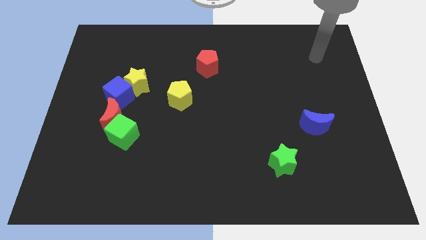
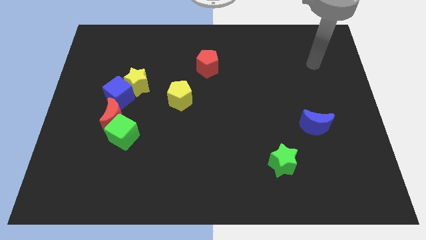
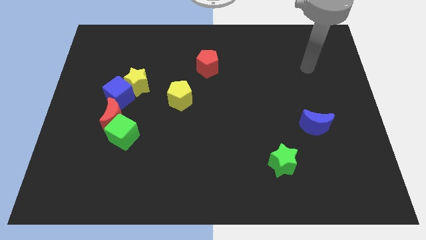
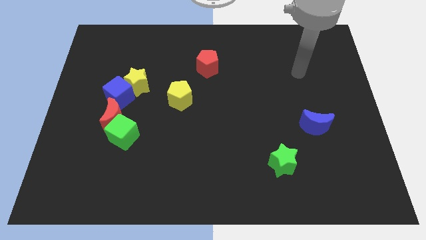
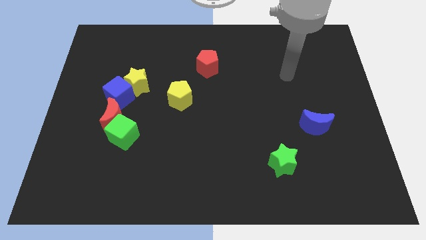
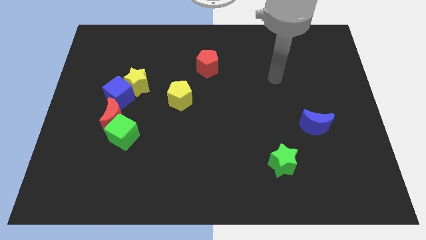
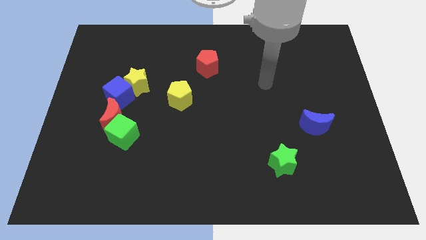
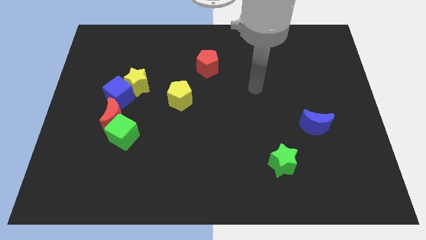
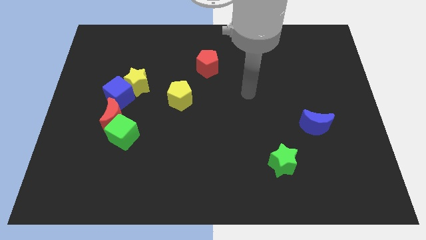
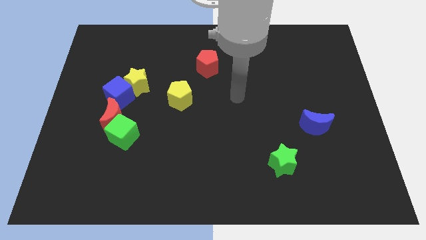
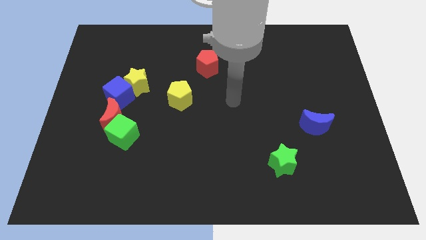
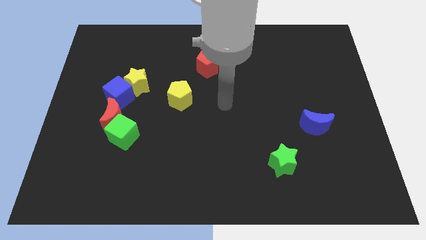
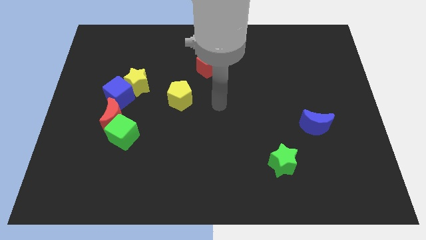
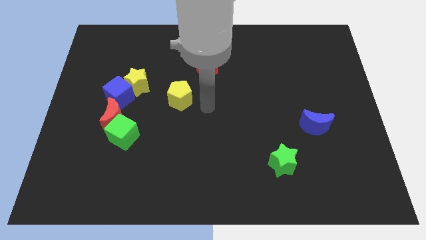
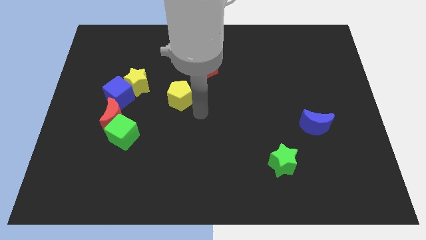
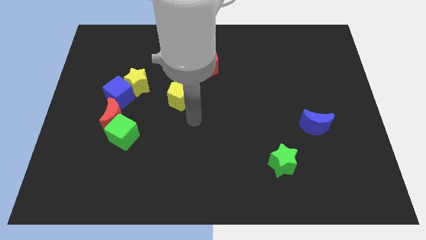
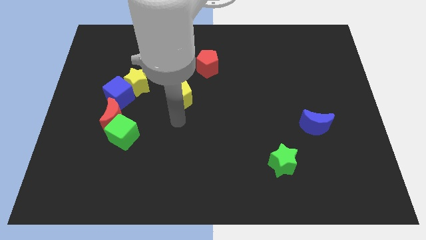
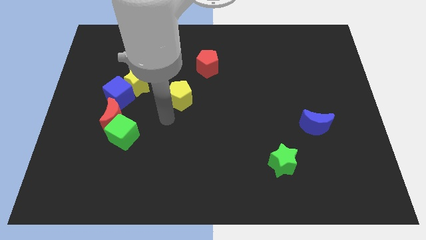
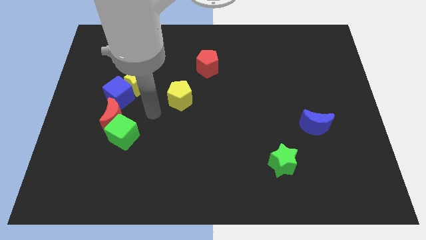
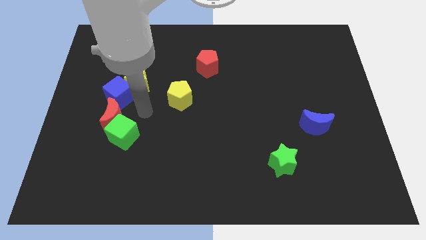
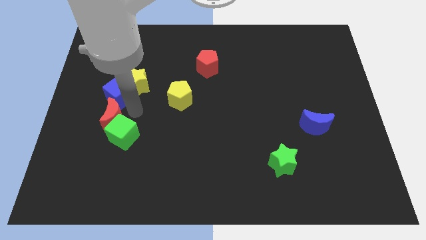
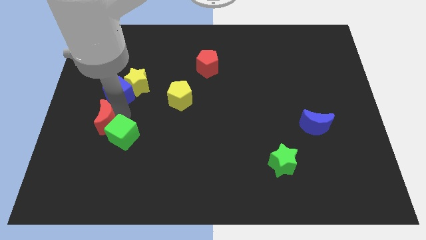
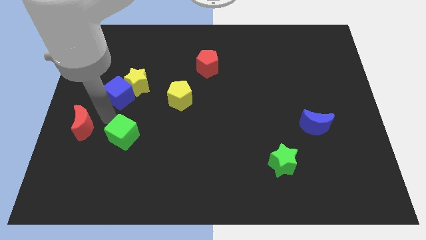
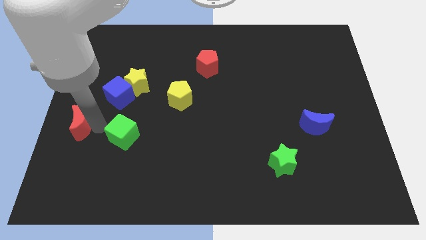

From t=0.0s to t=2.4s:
pull the green cube apart from the red moon

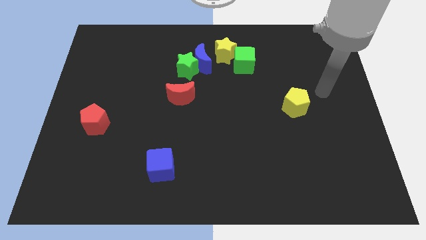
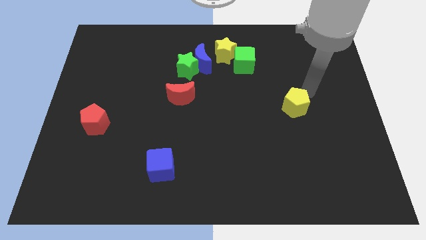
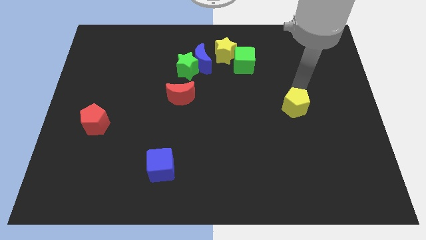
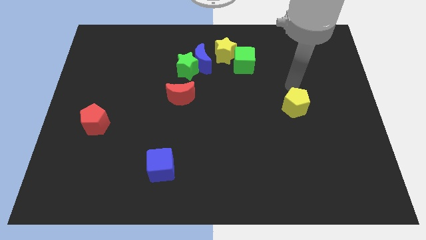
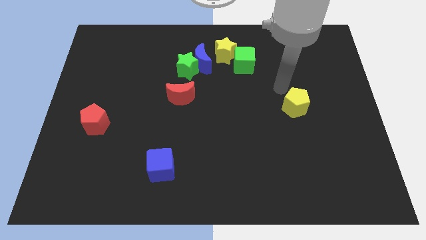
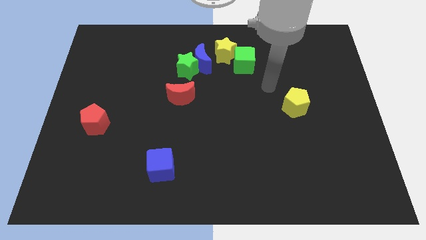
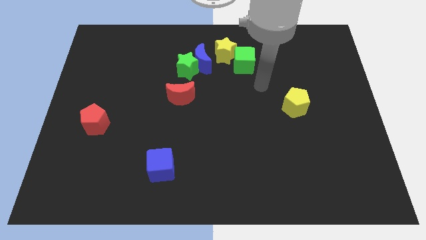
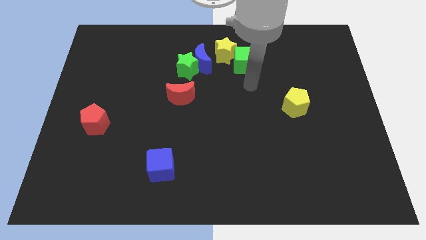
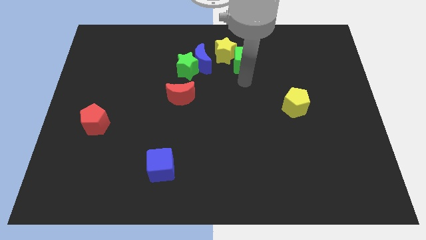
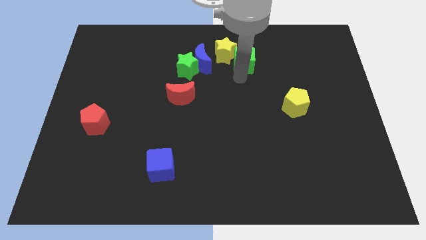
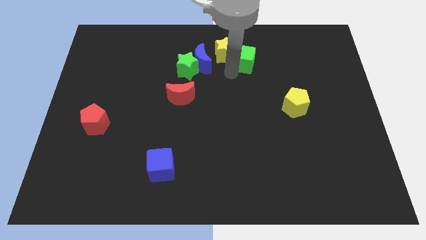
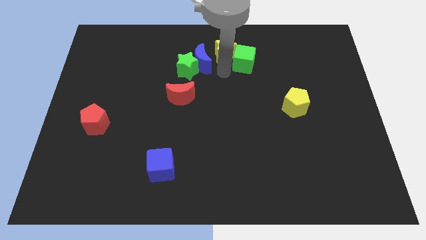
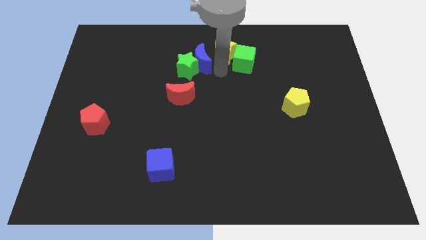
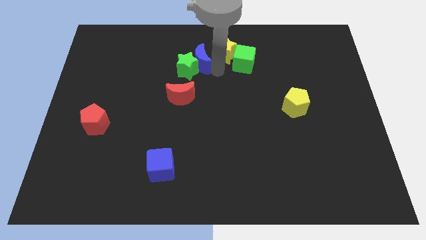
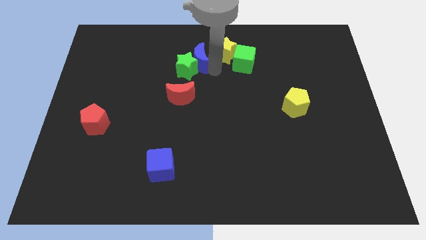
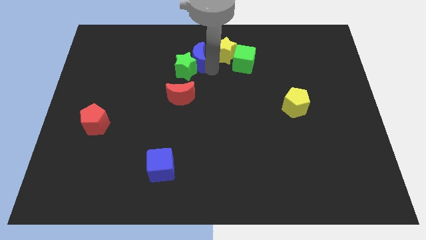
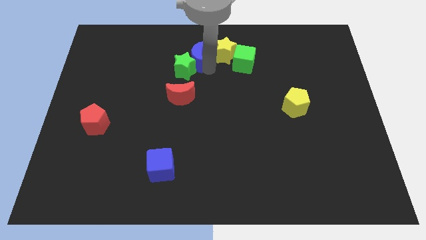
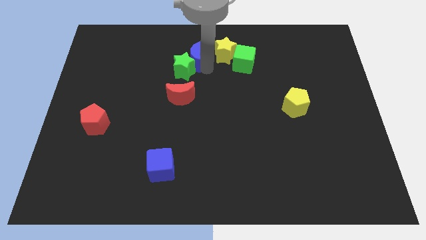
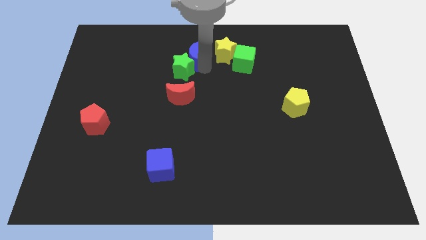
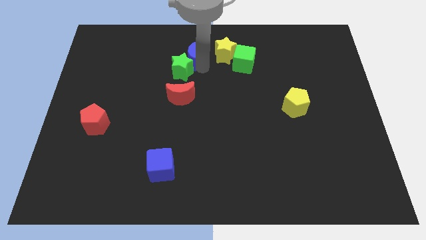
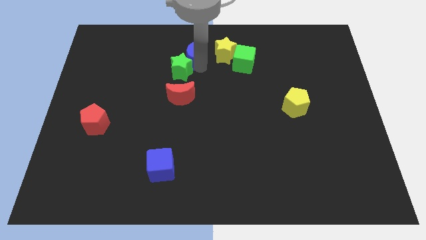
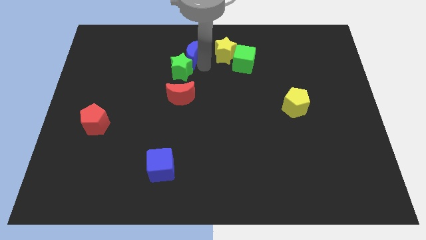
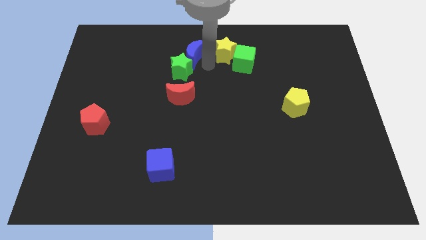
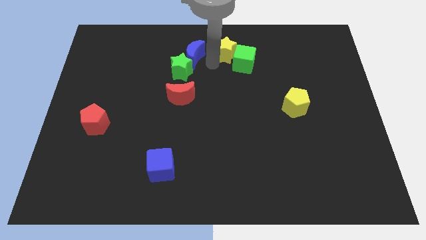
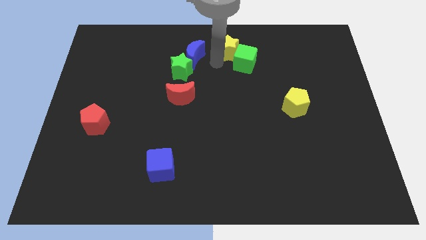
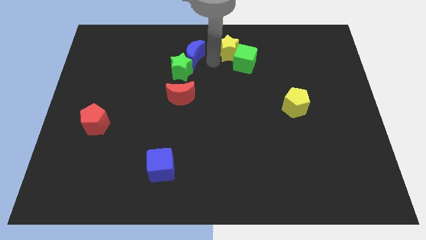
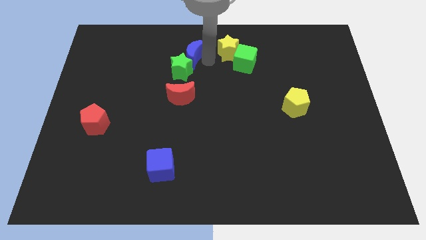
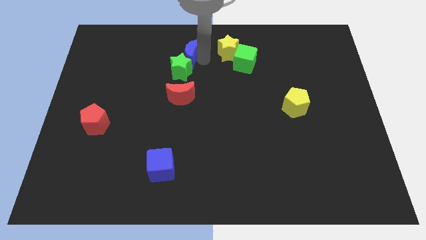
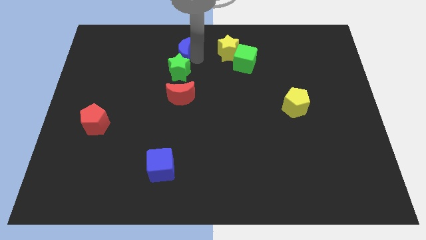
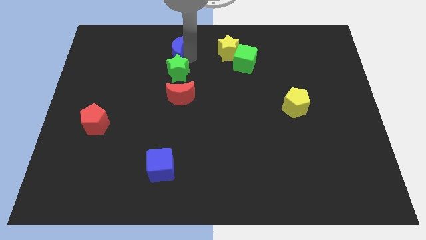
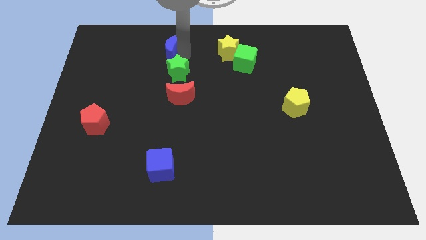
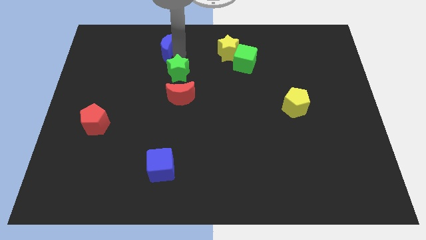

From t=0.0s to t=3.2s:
separate the blue moon from the green star and yellow star

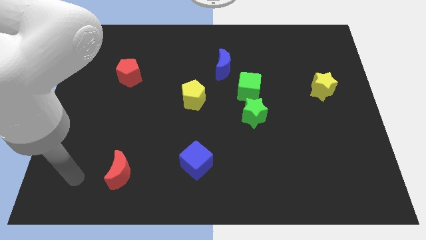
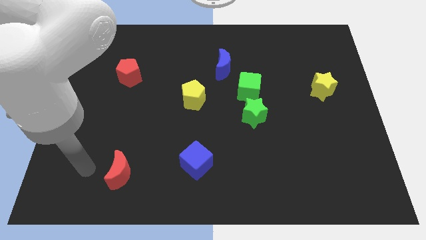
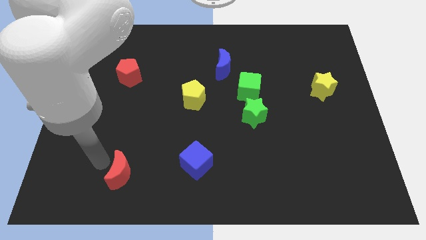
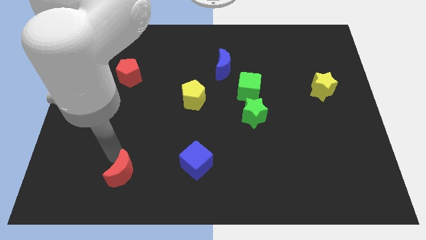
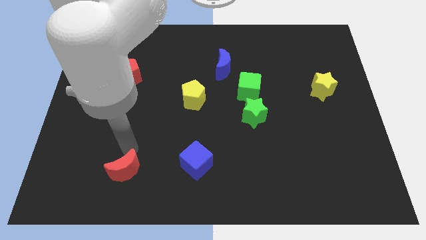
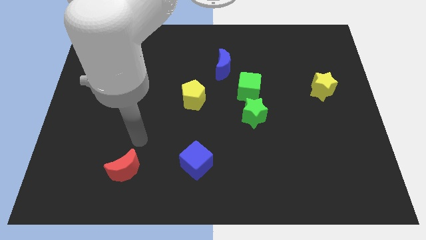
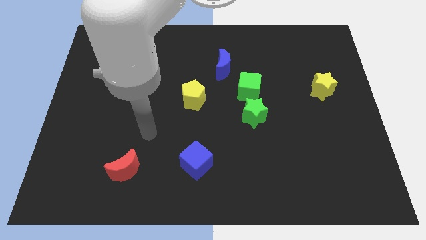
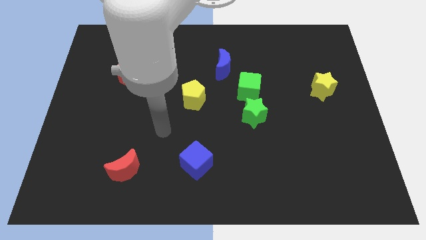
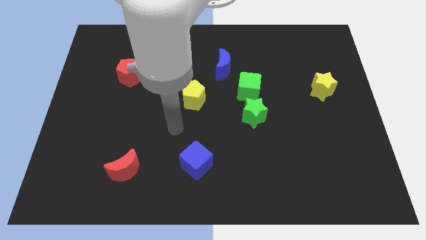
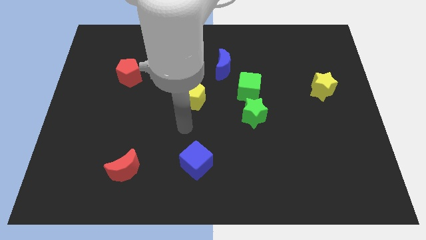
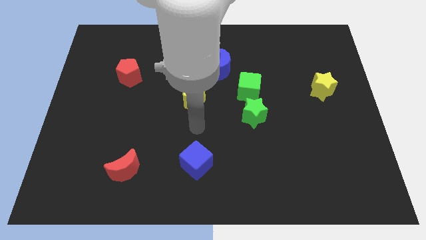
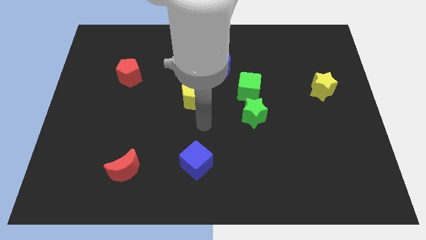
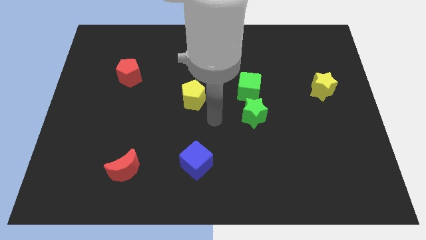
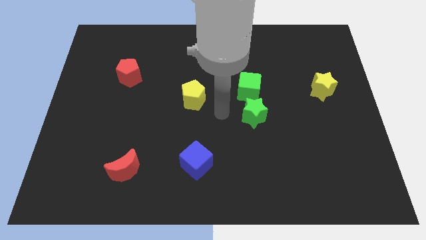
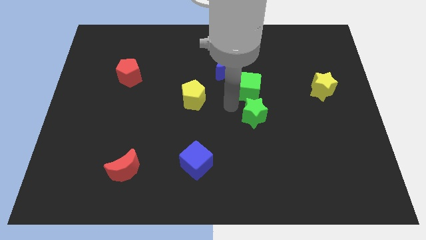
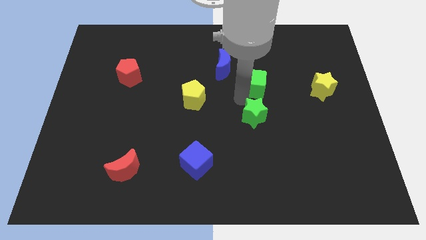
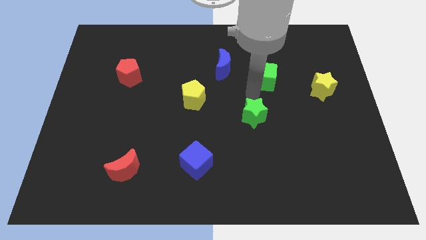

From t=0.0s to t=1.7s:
separate the green star from the green cube

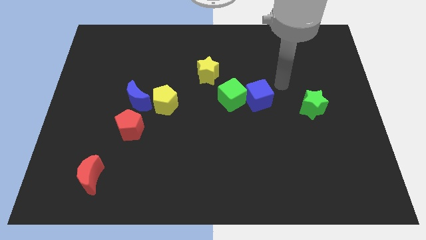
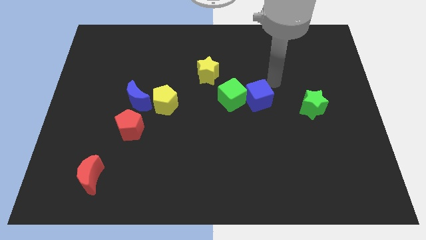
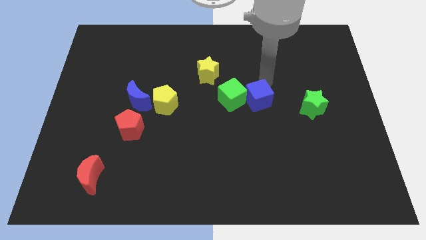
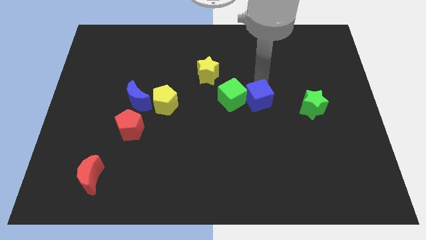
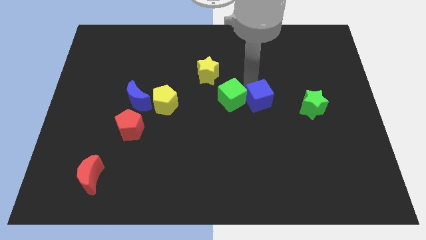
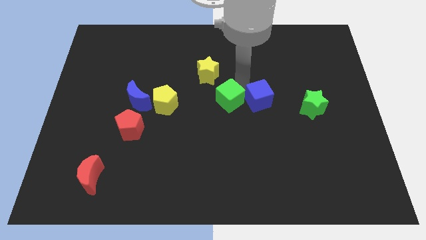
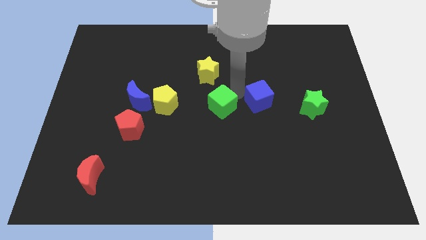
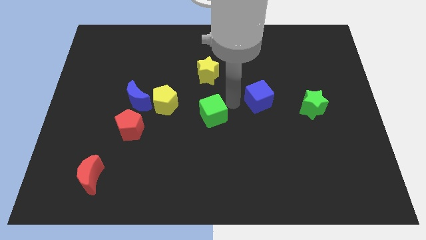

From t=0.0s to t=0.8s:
pull the blue cube apart from the green cube

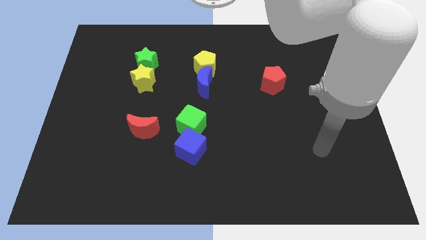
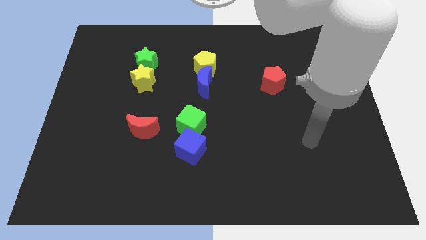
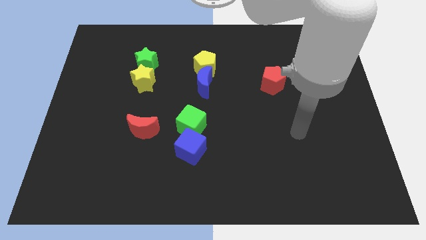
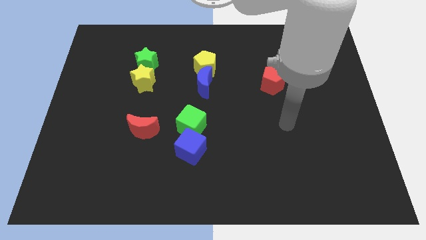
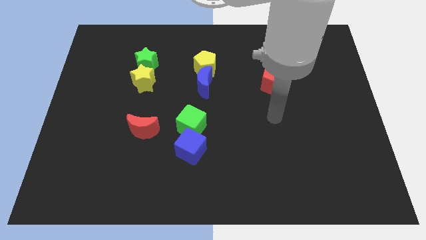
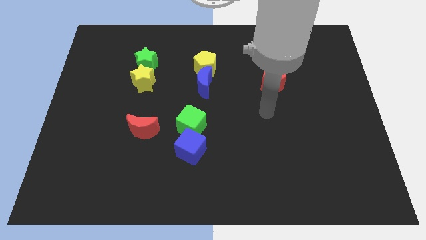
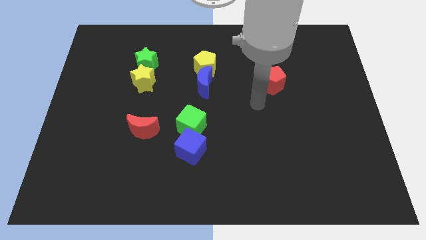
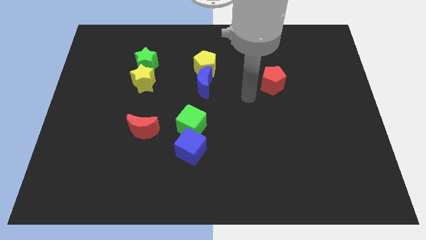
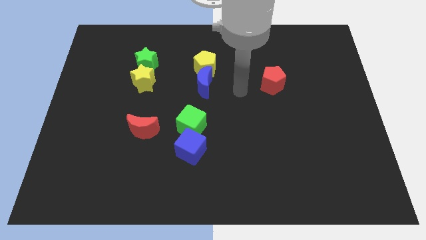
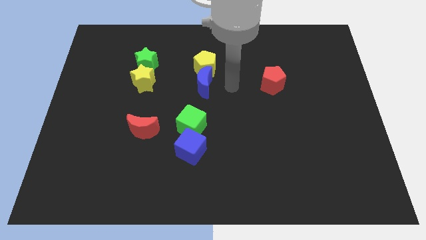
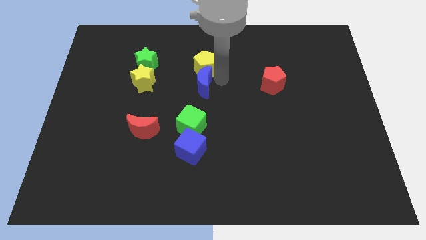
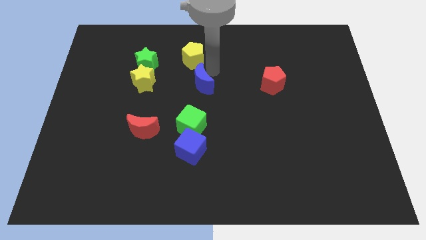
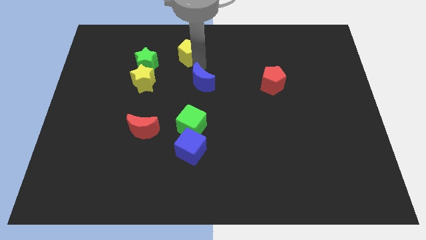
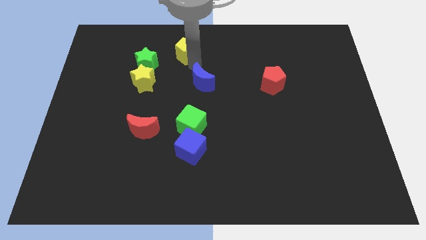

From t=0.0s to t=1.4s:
pull the blue moon apart from the yellow pentagon
